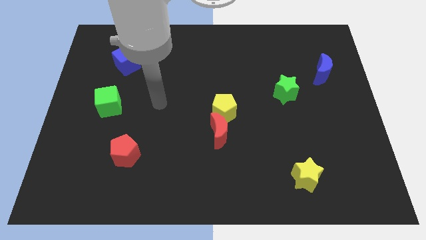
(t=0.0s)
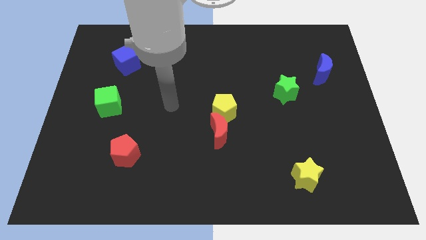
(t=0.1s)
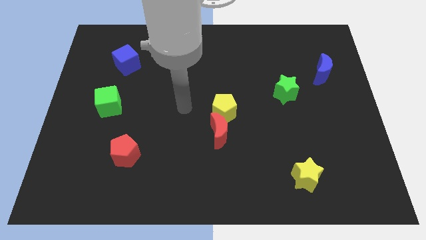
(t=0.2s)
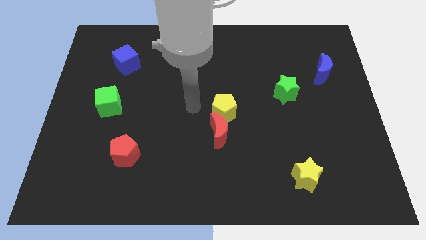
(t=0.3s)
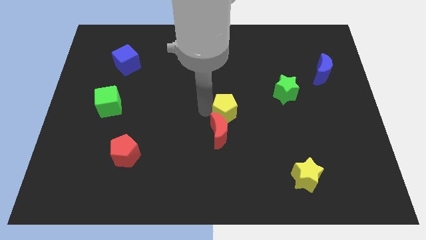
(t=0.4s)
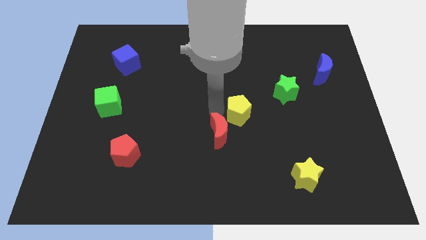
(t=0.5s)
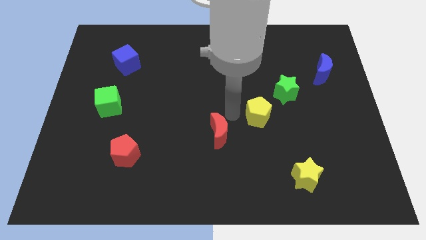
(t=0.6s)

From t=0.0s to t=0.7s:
move the red moon away from the yellow pentagon

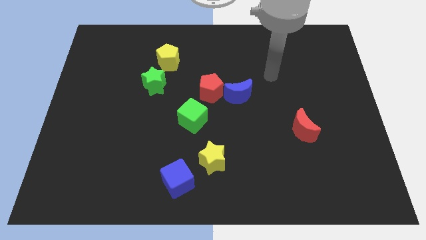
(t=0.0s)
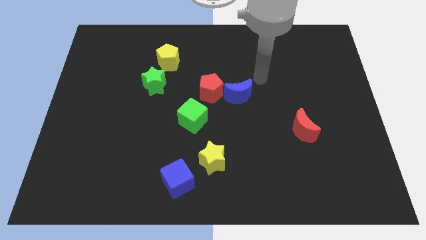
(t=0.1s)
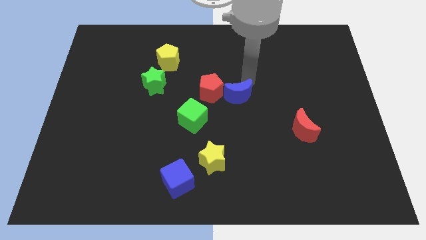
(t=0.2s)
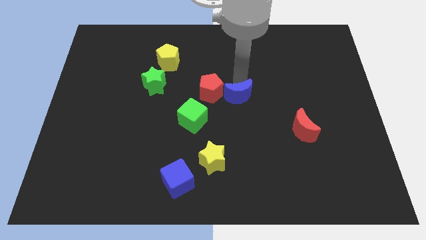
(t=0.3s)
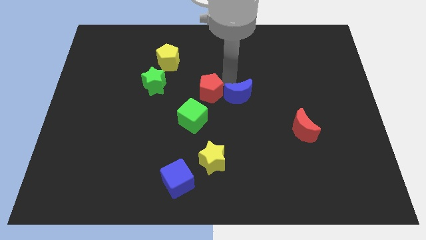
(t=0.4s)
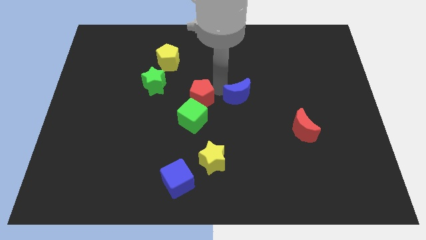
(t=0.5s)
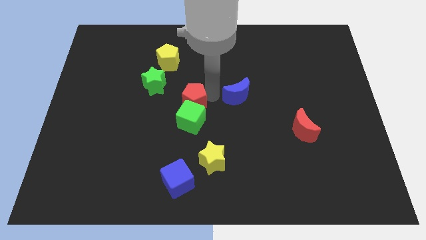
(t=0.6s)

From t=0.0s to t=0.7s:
move the blue moon away from the red pentagon

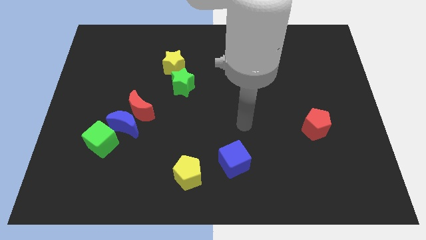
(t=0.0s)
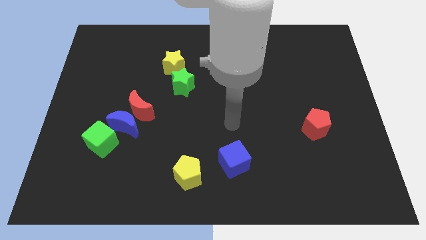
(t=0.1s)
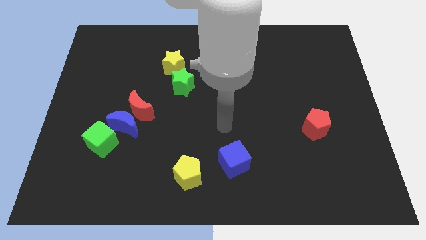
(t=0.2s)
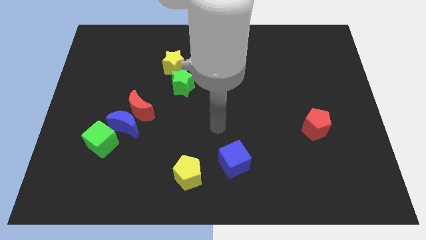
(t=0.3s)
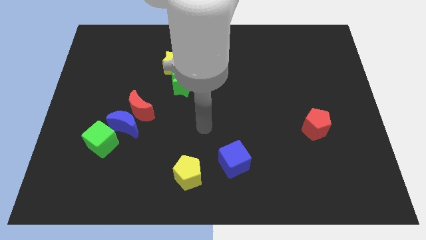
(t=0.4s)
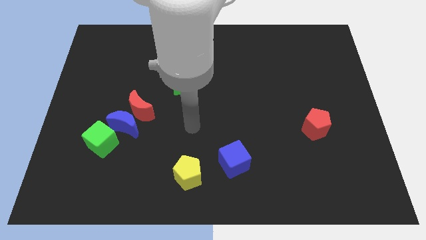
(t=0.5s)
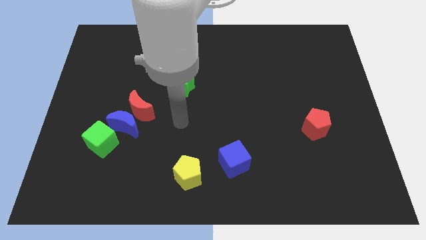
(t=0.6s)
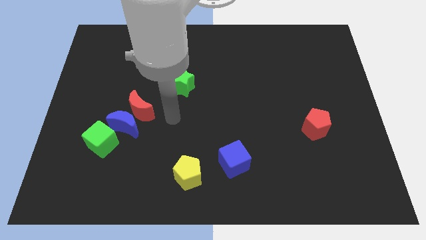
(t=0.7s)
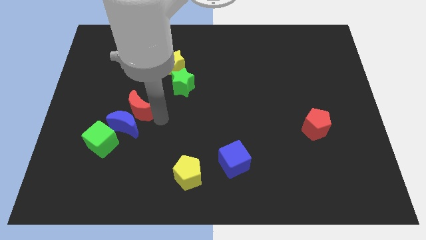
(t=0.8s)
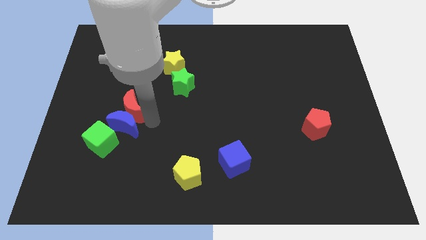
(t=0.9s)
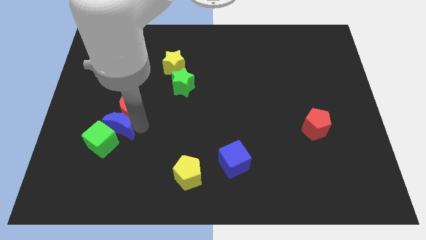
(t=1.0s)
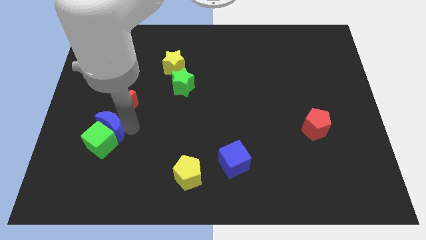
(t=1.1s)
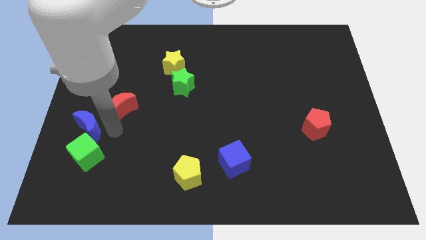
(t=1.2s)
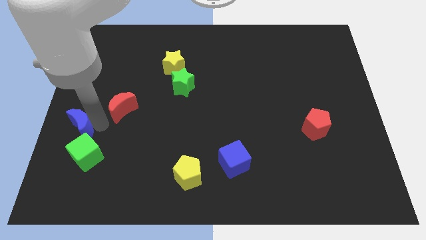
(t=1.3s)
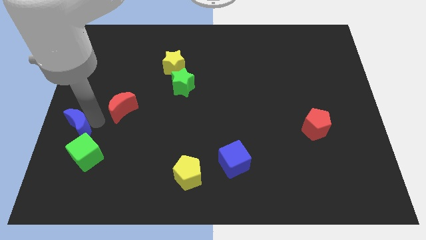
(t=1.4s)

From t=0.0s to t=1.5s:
separate the red moon from the blue moon

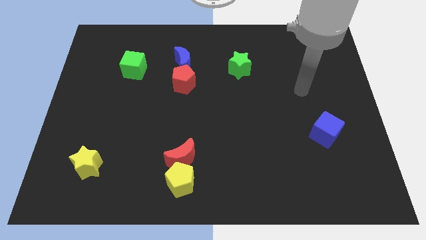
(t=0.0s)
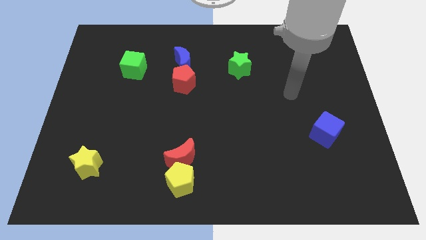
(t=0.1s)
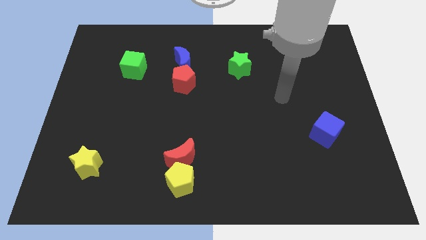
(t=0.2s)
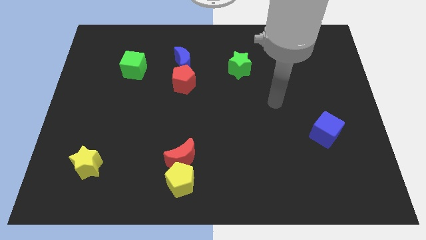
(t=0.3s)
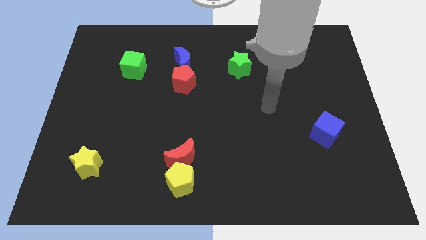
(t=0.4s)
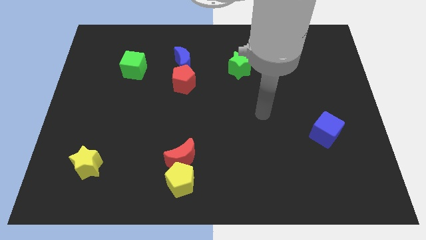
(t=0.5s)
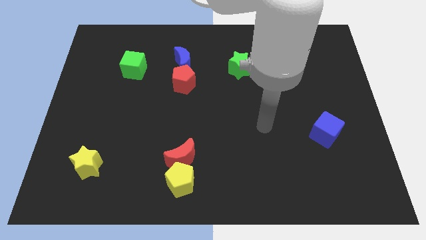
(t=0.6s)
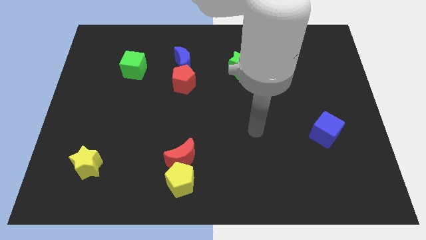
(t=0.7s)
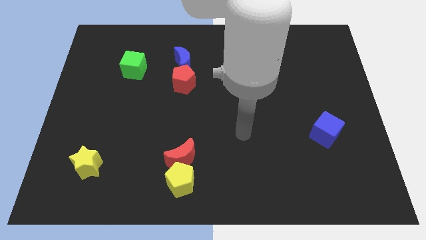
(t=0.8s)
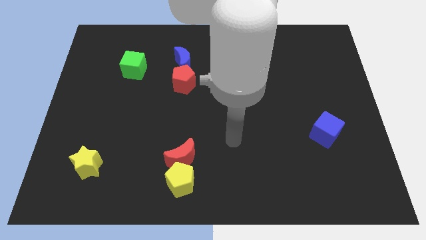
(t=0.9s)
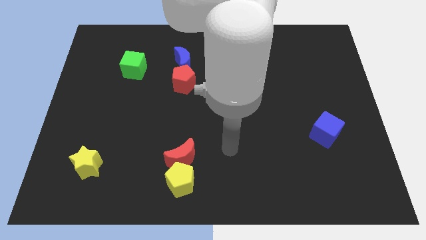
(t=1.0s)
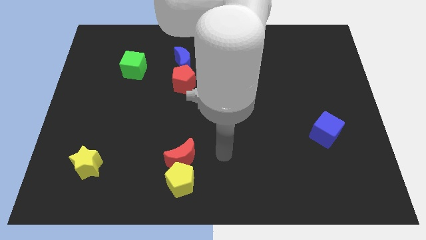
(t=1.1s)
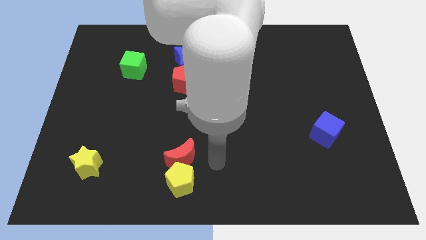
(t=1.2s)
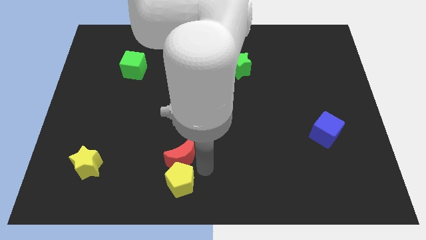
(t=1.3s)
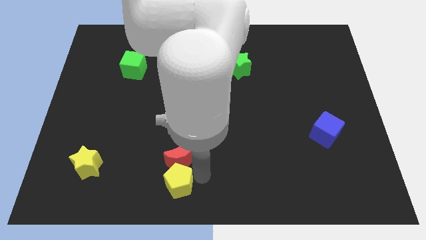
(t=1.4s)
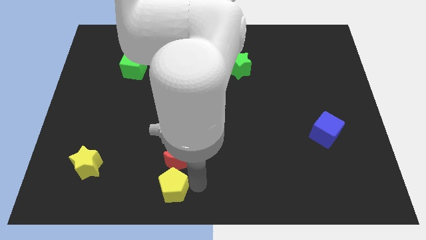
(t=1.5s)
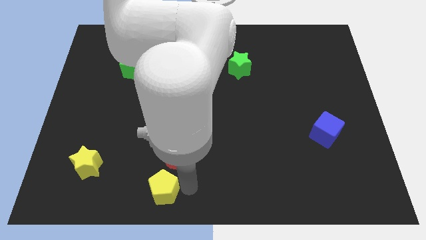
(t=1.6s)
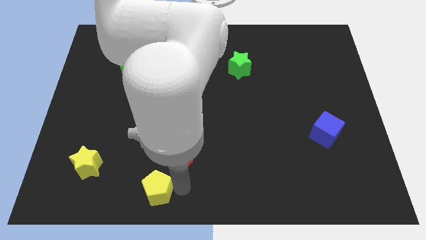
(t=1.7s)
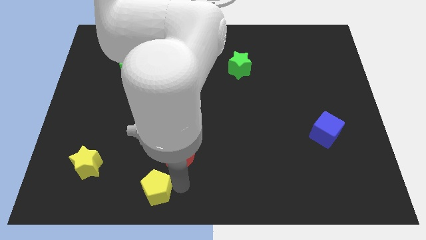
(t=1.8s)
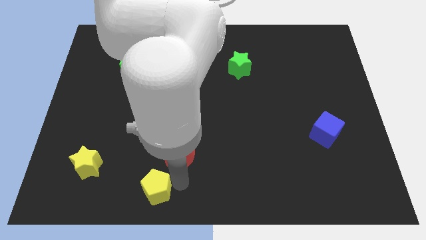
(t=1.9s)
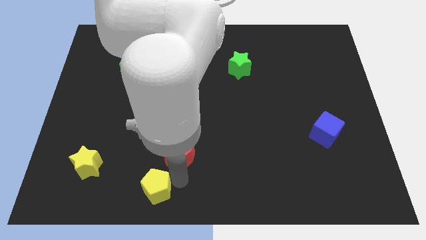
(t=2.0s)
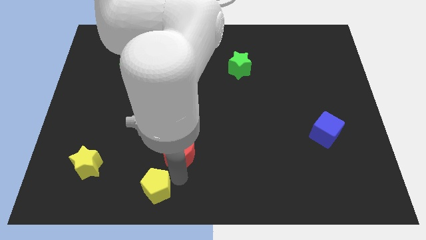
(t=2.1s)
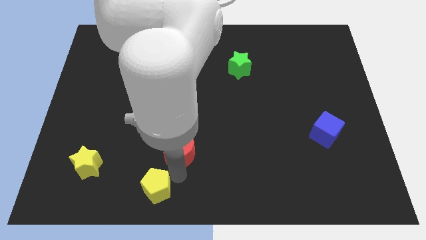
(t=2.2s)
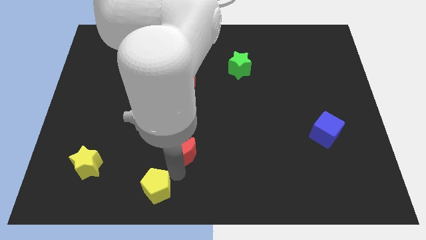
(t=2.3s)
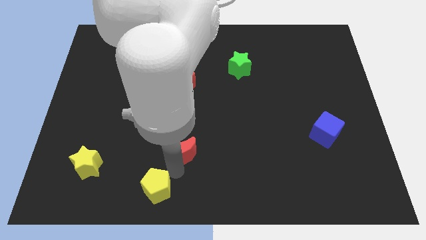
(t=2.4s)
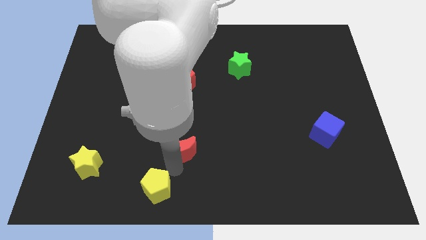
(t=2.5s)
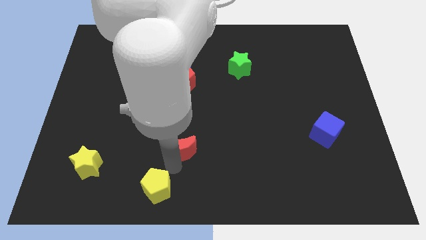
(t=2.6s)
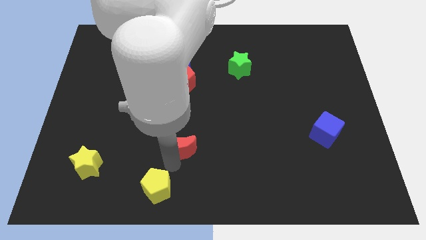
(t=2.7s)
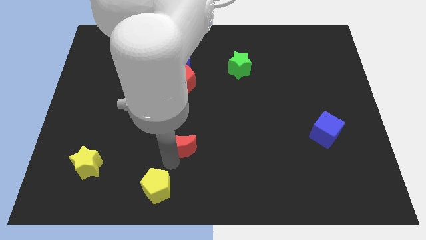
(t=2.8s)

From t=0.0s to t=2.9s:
pull the red moon apart from the yellow pentagon

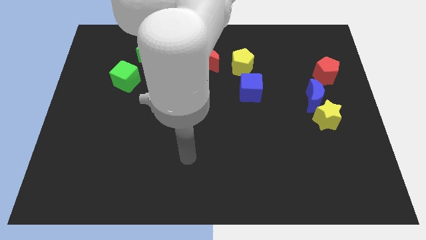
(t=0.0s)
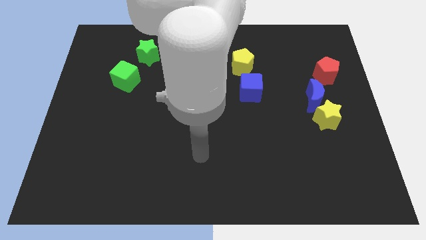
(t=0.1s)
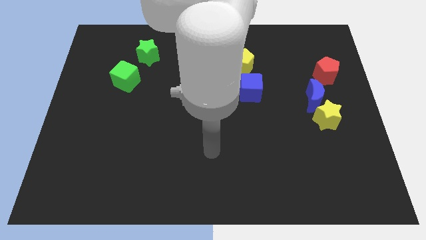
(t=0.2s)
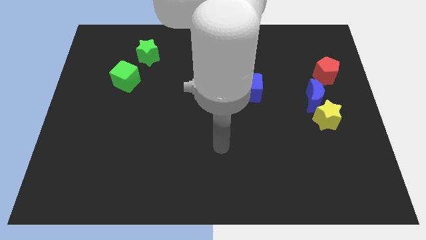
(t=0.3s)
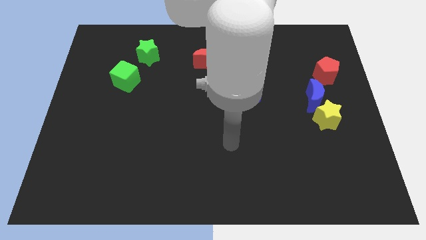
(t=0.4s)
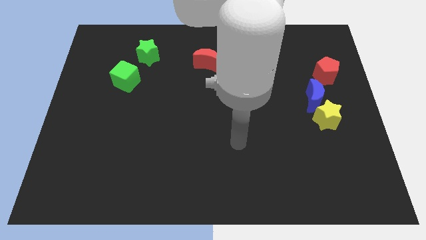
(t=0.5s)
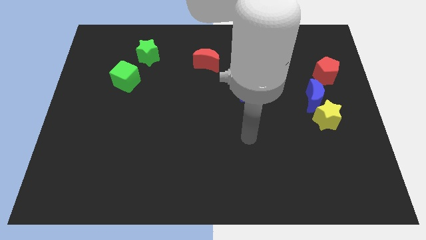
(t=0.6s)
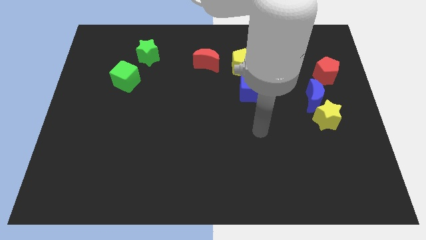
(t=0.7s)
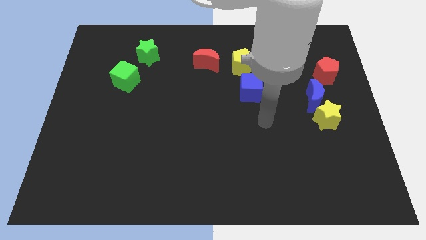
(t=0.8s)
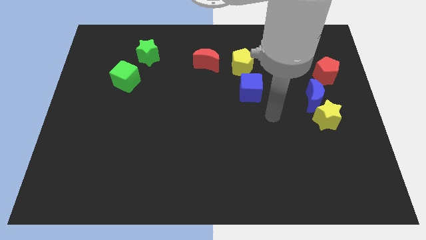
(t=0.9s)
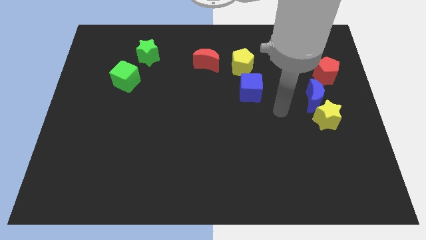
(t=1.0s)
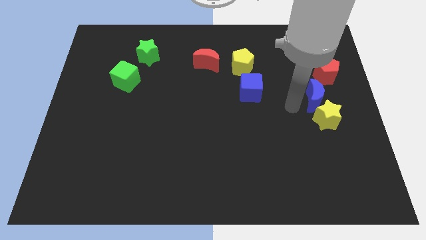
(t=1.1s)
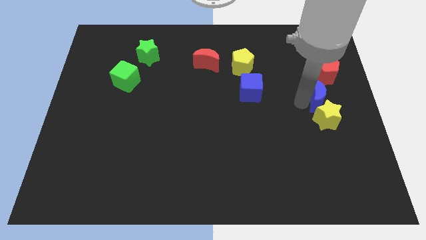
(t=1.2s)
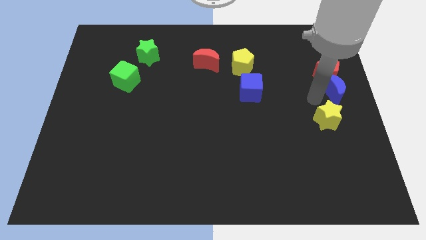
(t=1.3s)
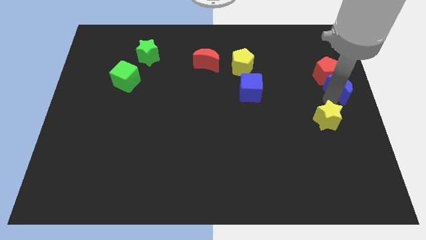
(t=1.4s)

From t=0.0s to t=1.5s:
move the yellow star away from the blue moon

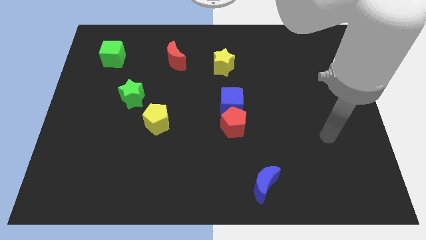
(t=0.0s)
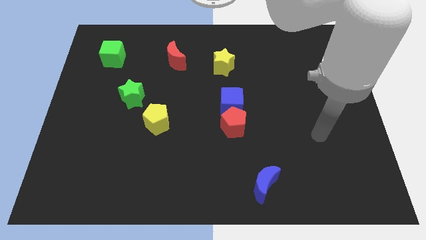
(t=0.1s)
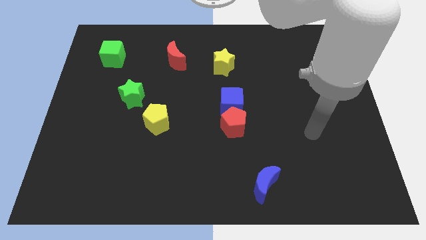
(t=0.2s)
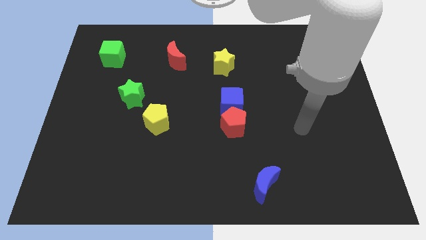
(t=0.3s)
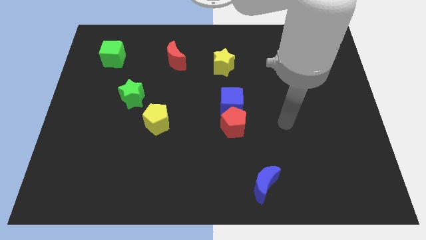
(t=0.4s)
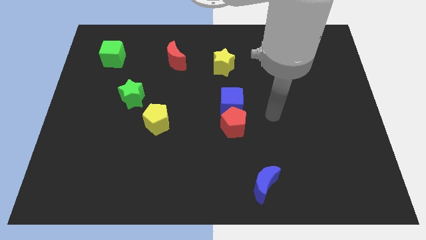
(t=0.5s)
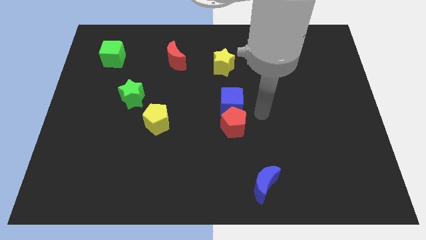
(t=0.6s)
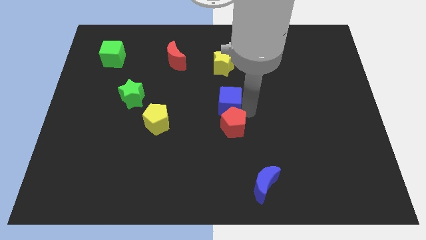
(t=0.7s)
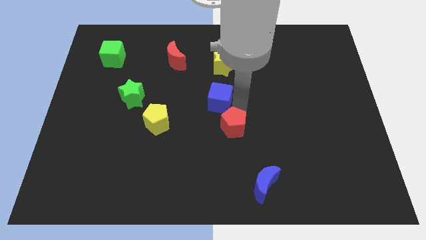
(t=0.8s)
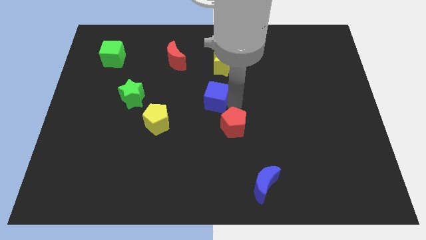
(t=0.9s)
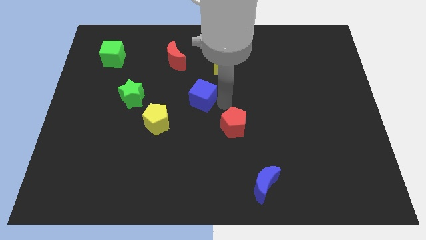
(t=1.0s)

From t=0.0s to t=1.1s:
pull the red pentagon apart from the blue cube

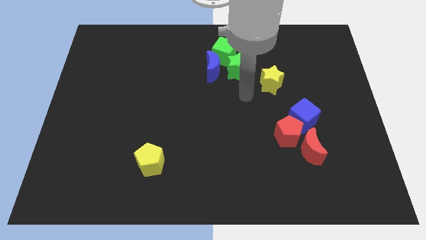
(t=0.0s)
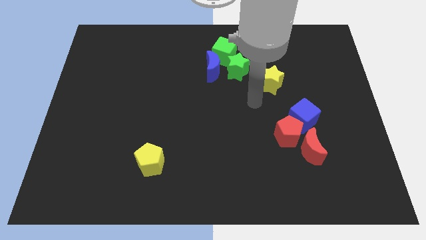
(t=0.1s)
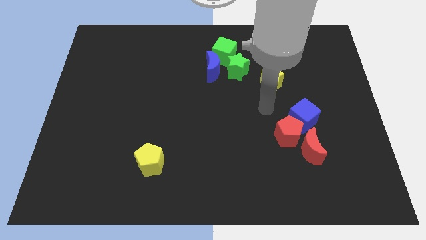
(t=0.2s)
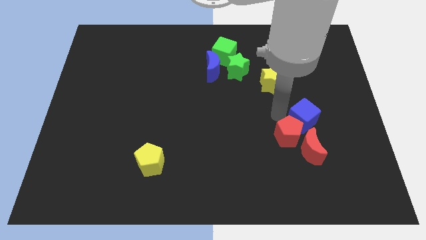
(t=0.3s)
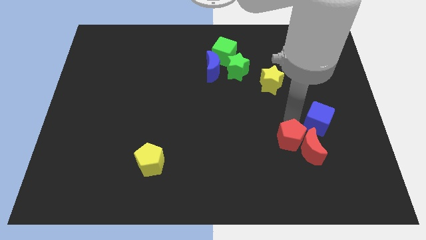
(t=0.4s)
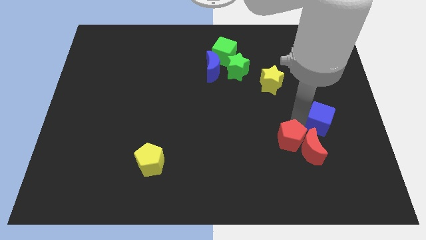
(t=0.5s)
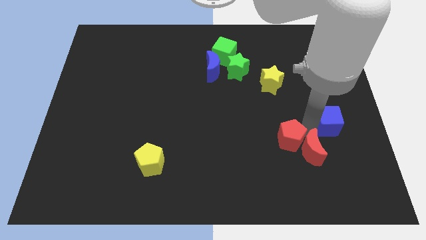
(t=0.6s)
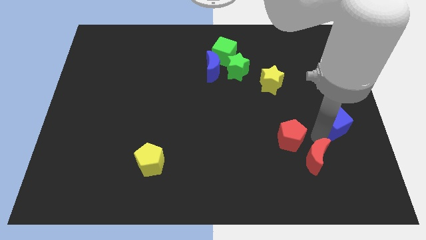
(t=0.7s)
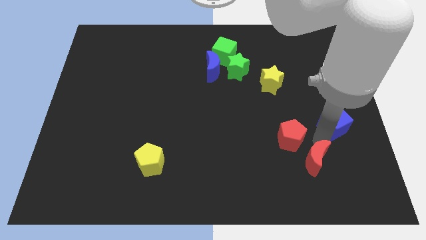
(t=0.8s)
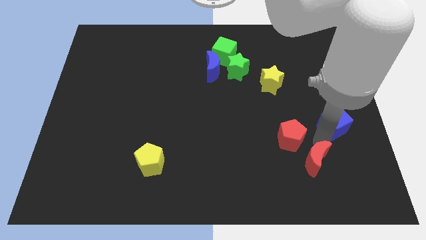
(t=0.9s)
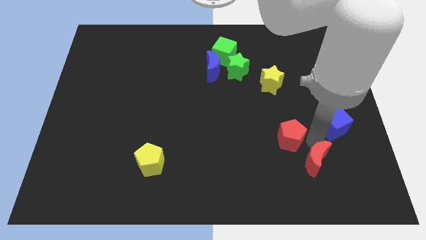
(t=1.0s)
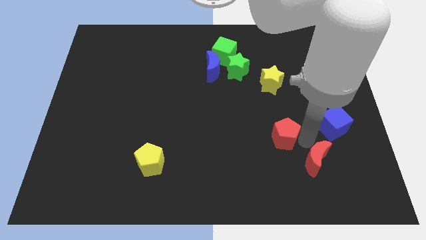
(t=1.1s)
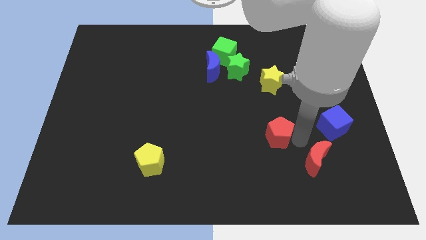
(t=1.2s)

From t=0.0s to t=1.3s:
pull the red pentagon apart from the red moon and blue cube
